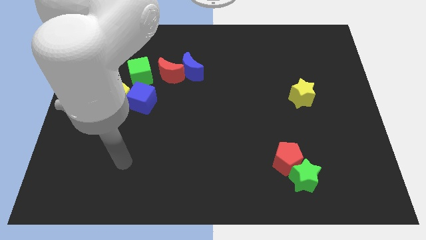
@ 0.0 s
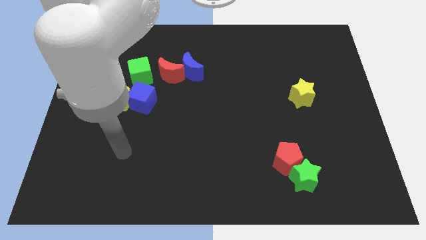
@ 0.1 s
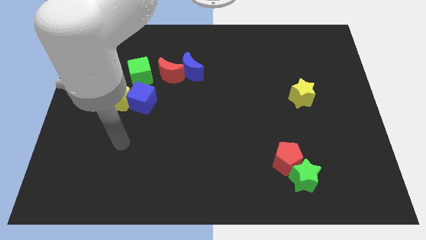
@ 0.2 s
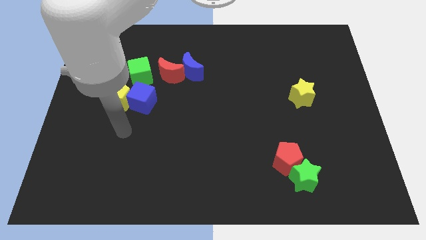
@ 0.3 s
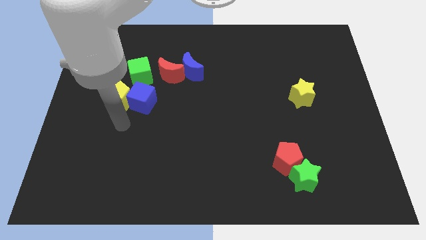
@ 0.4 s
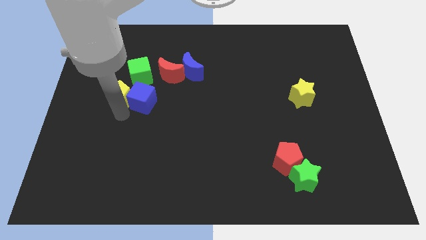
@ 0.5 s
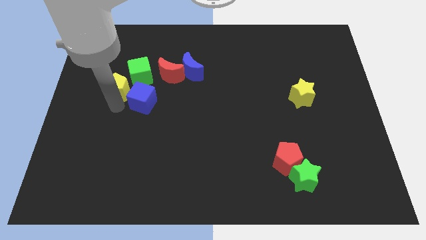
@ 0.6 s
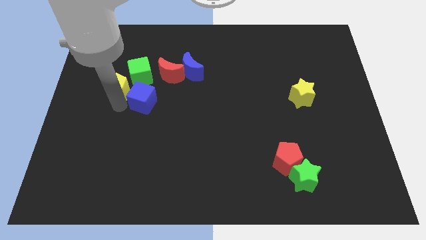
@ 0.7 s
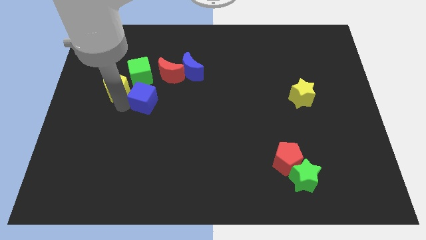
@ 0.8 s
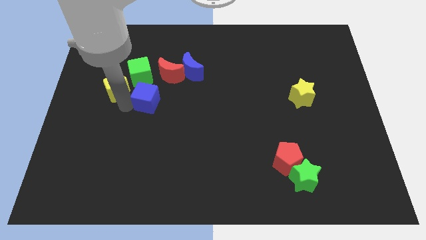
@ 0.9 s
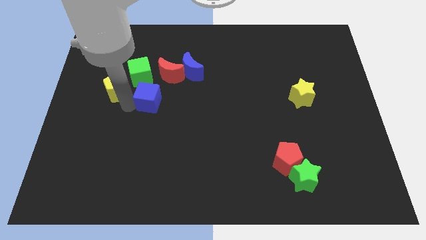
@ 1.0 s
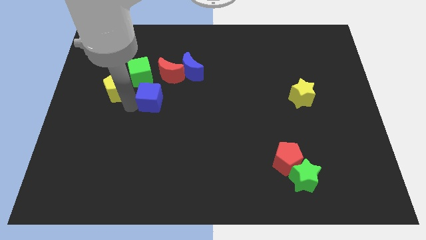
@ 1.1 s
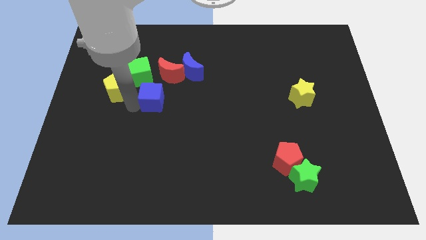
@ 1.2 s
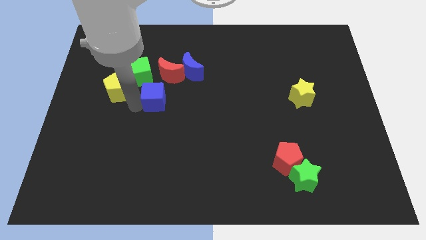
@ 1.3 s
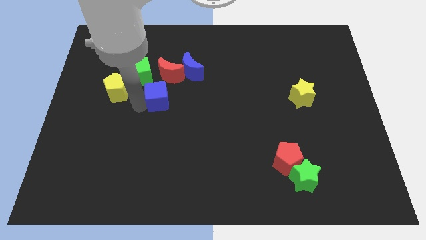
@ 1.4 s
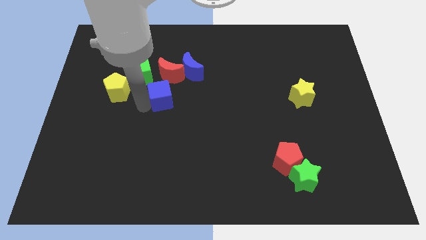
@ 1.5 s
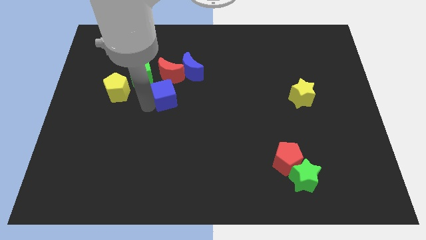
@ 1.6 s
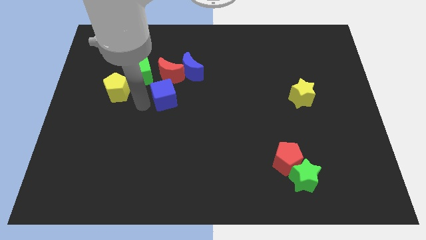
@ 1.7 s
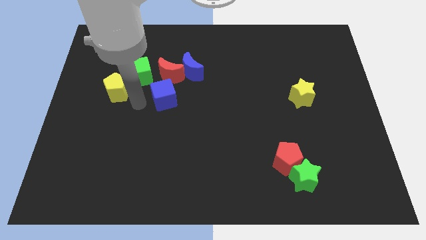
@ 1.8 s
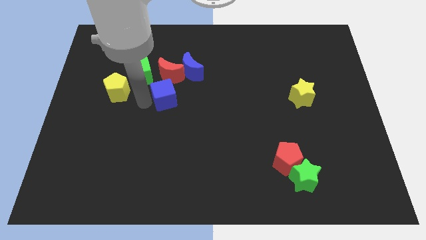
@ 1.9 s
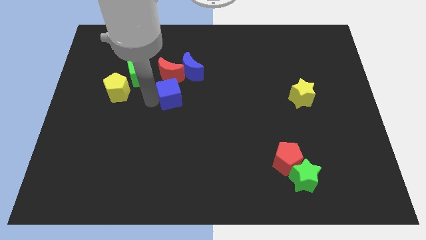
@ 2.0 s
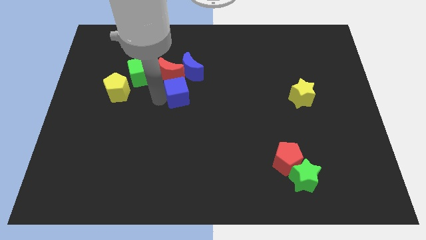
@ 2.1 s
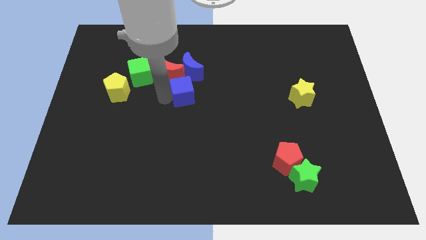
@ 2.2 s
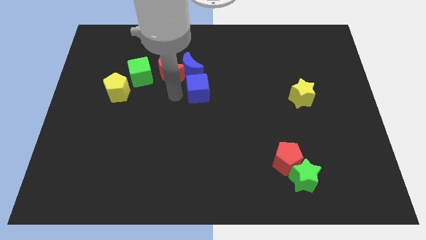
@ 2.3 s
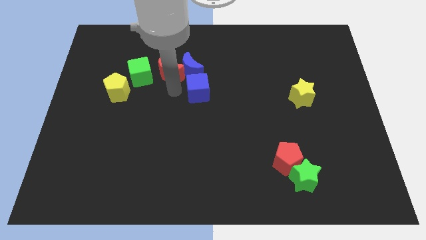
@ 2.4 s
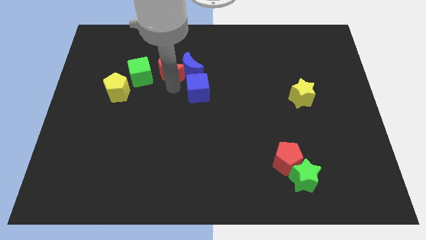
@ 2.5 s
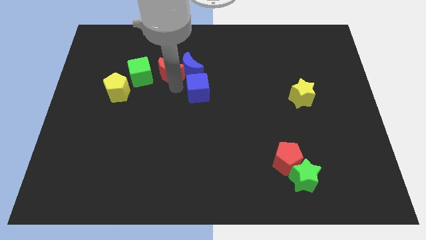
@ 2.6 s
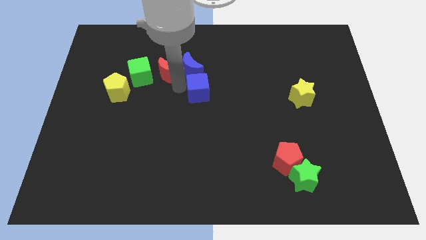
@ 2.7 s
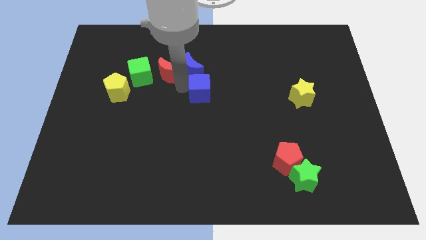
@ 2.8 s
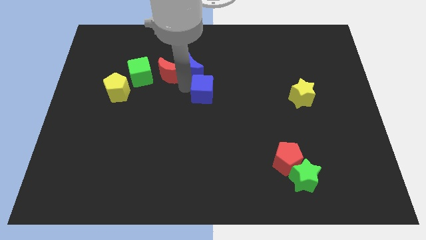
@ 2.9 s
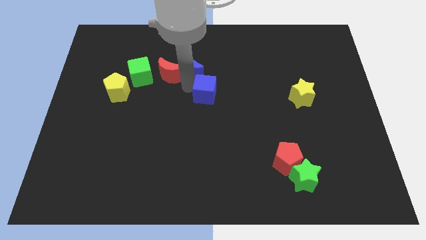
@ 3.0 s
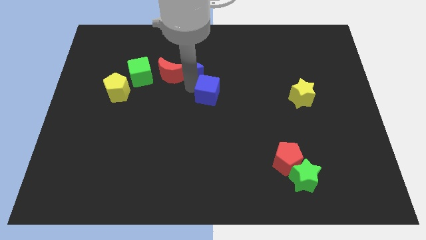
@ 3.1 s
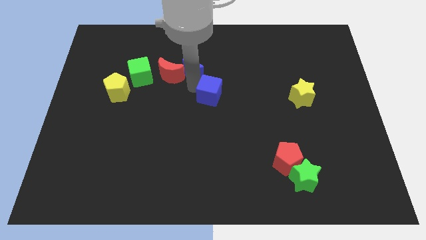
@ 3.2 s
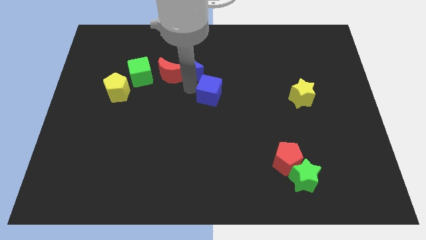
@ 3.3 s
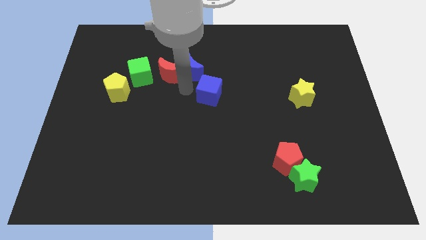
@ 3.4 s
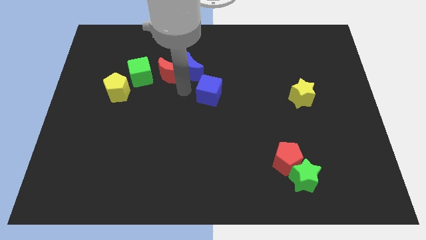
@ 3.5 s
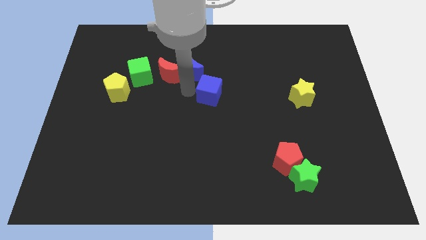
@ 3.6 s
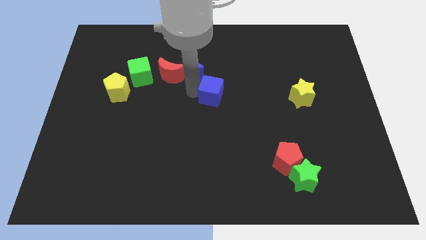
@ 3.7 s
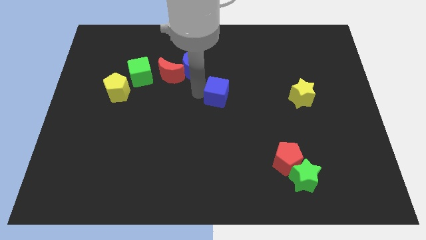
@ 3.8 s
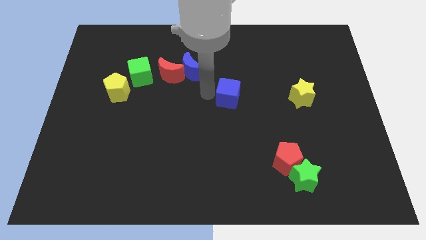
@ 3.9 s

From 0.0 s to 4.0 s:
push the blue cube to the right

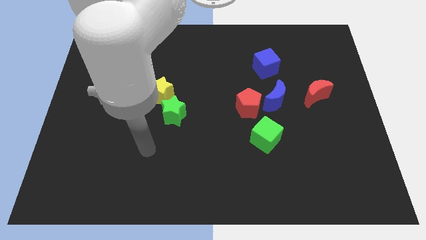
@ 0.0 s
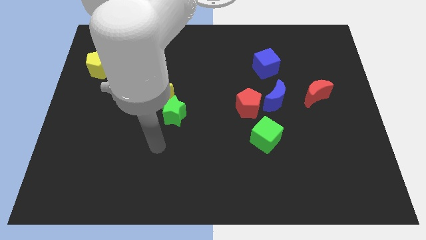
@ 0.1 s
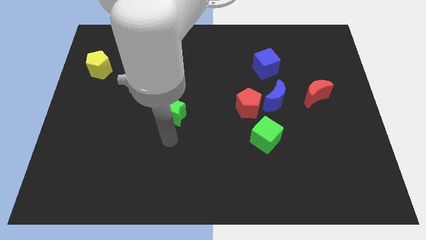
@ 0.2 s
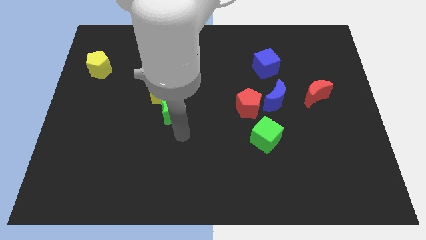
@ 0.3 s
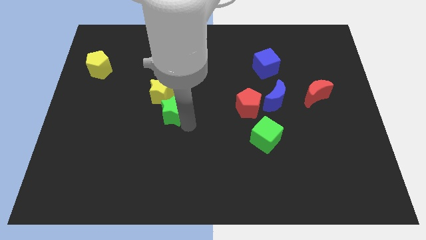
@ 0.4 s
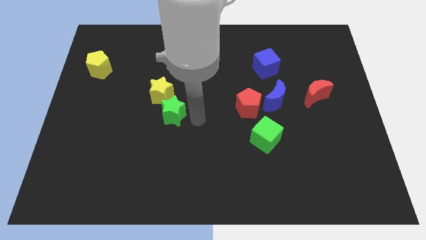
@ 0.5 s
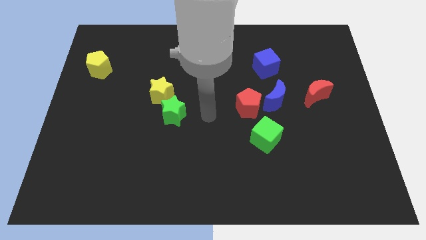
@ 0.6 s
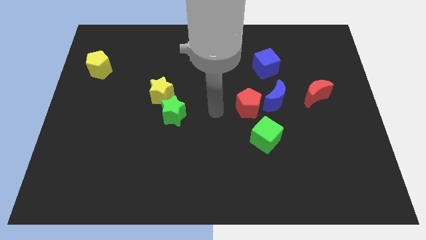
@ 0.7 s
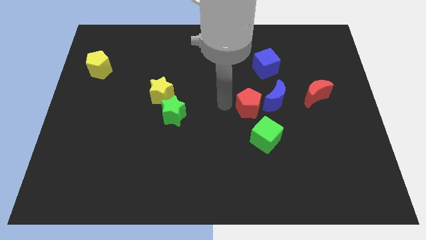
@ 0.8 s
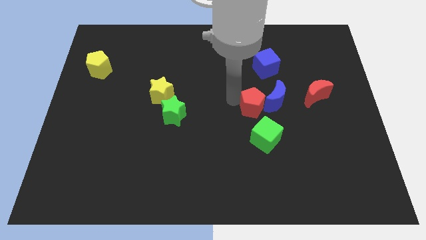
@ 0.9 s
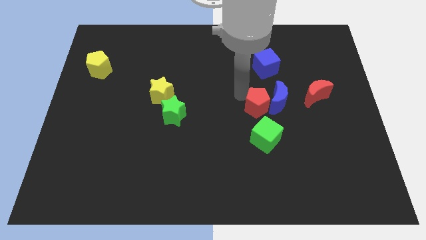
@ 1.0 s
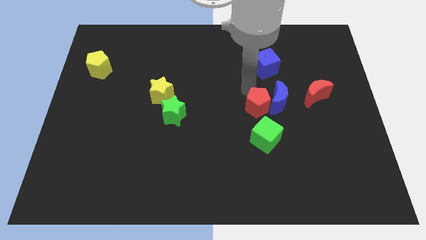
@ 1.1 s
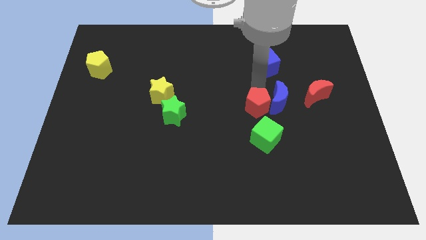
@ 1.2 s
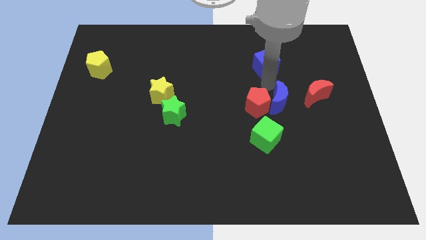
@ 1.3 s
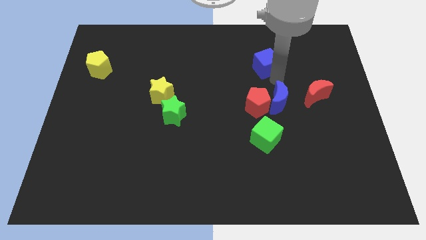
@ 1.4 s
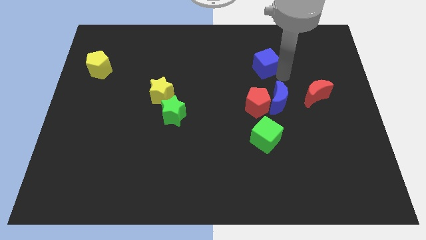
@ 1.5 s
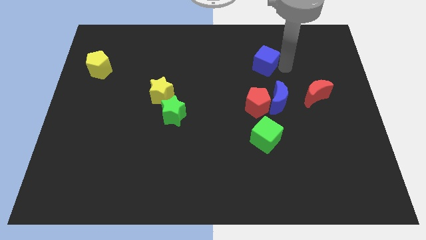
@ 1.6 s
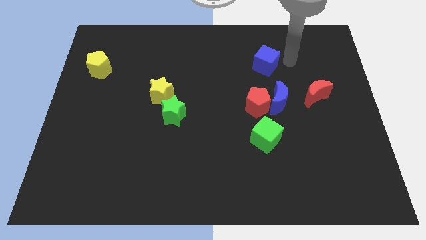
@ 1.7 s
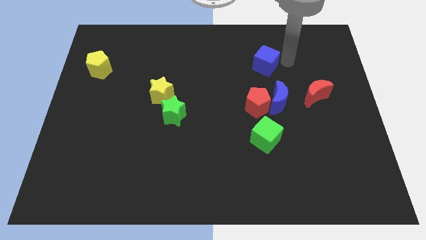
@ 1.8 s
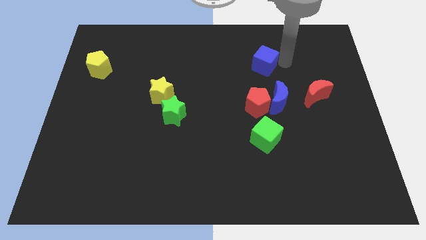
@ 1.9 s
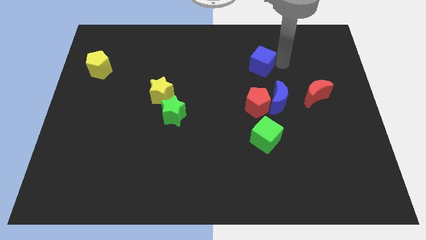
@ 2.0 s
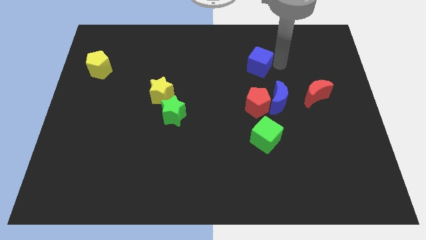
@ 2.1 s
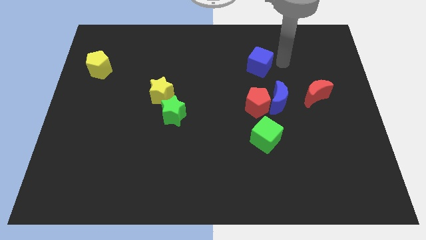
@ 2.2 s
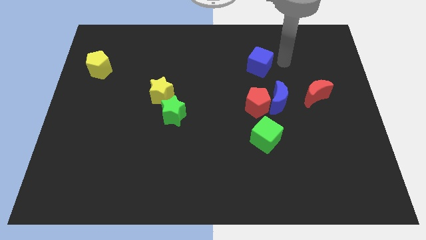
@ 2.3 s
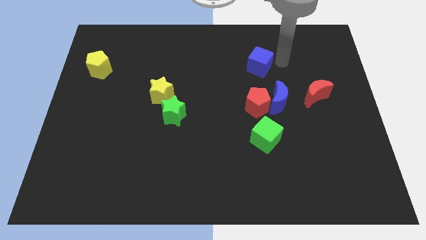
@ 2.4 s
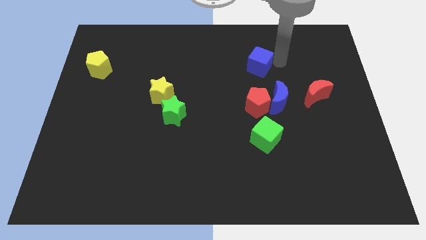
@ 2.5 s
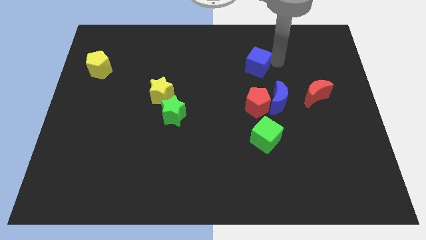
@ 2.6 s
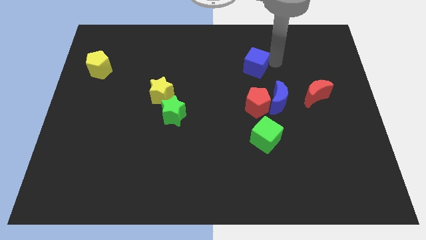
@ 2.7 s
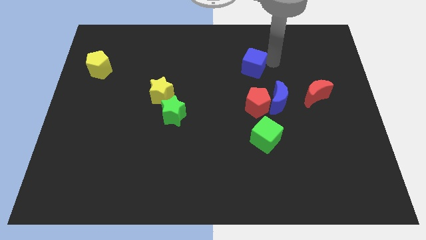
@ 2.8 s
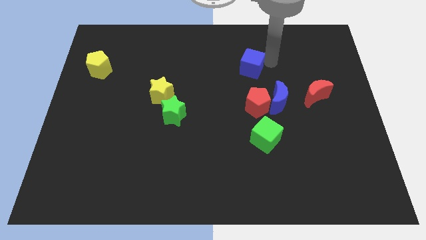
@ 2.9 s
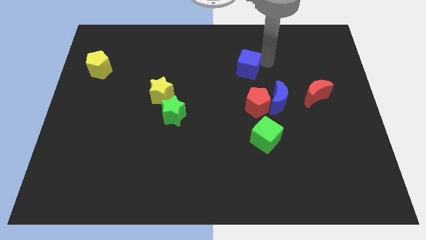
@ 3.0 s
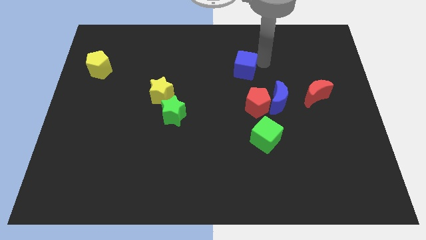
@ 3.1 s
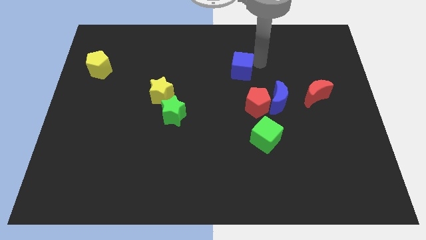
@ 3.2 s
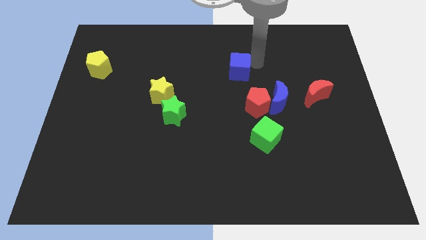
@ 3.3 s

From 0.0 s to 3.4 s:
slide the blue cube a bit left

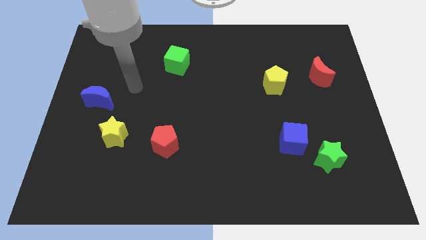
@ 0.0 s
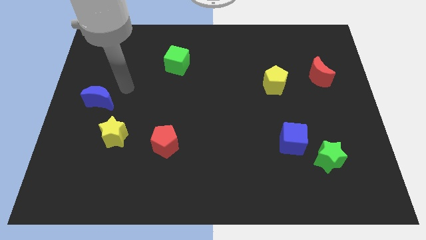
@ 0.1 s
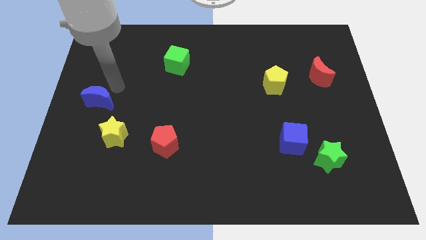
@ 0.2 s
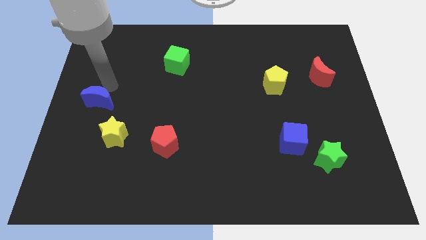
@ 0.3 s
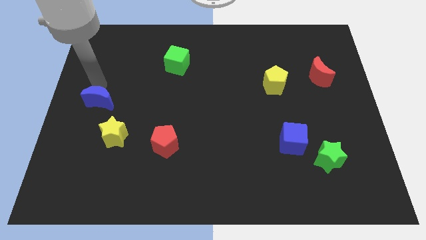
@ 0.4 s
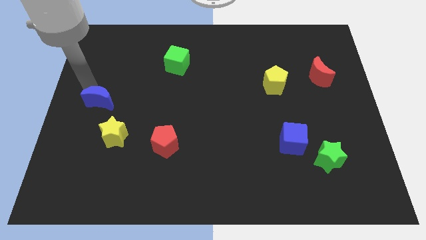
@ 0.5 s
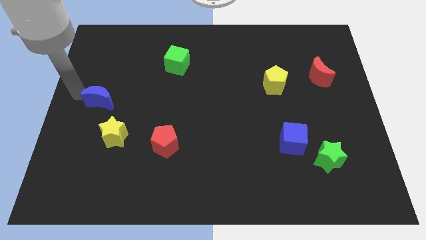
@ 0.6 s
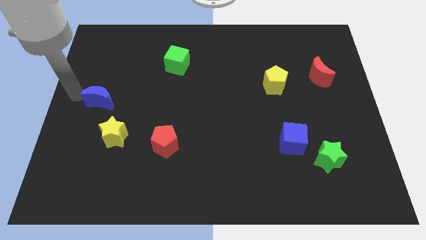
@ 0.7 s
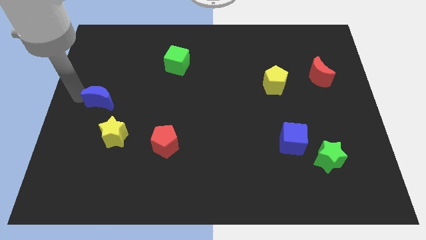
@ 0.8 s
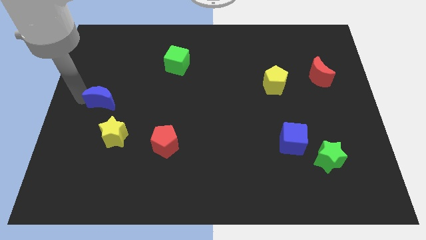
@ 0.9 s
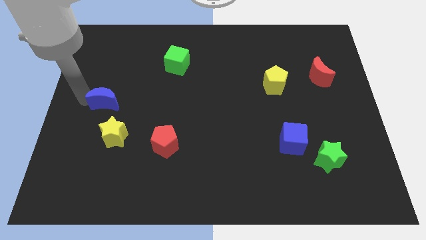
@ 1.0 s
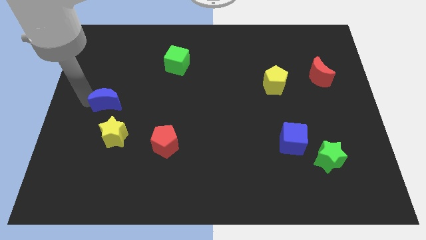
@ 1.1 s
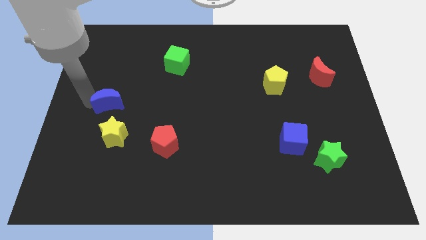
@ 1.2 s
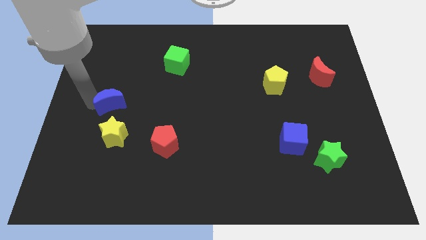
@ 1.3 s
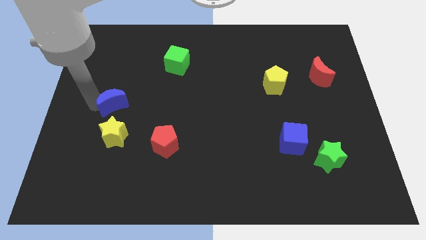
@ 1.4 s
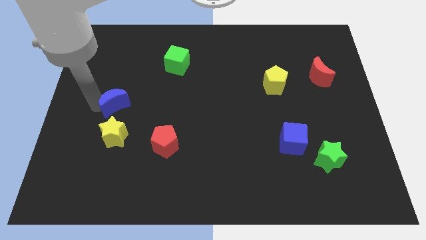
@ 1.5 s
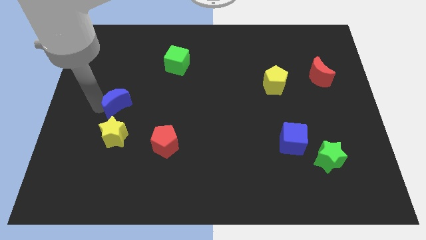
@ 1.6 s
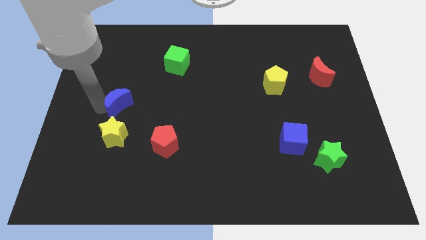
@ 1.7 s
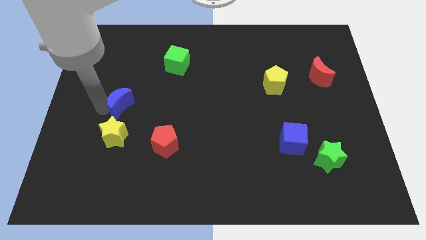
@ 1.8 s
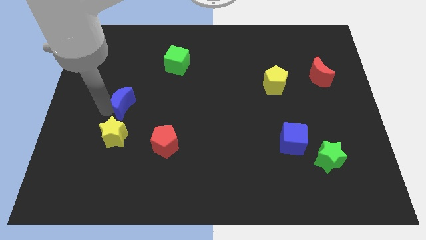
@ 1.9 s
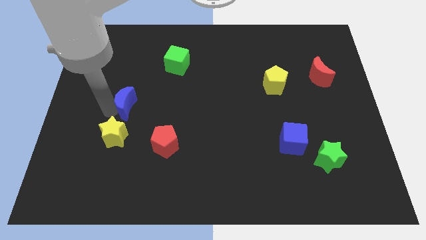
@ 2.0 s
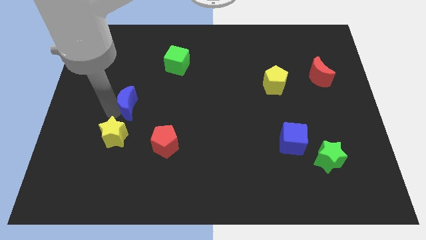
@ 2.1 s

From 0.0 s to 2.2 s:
push the blue moon right a little bit
